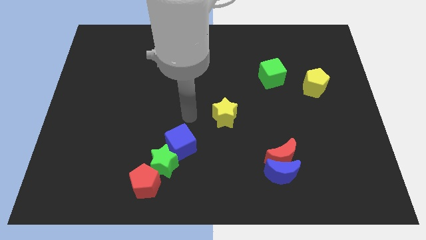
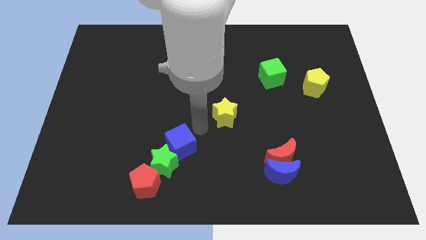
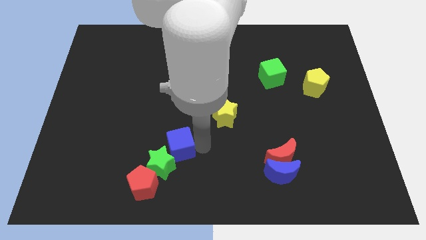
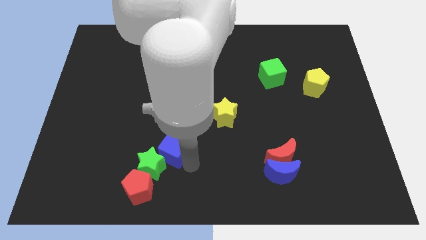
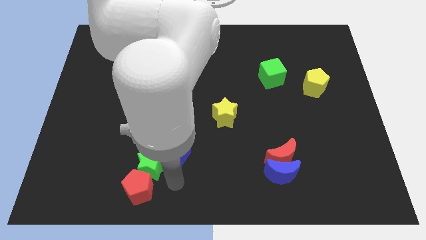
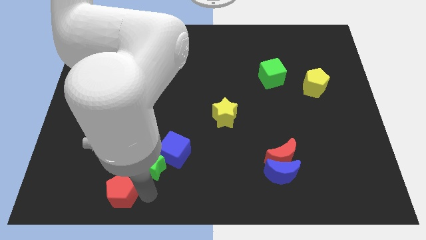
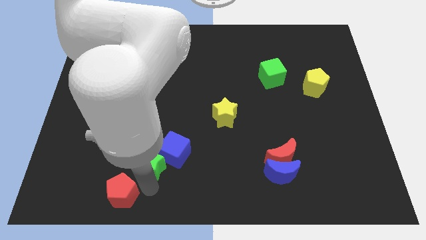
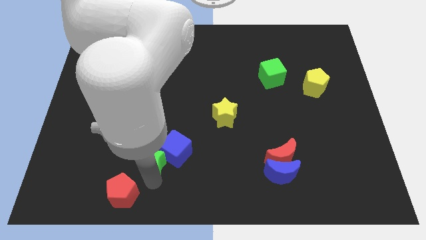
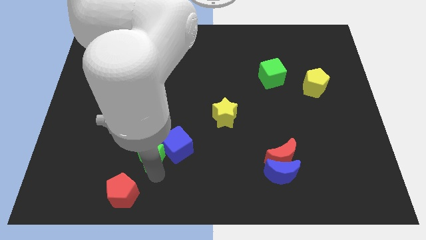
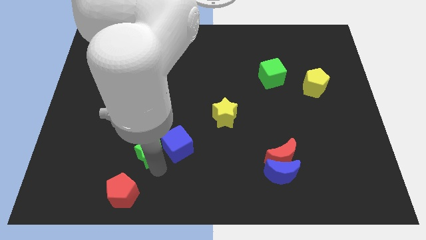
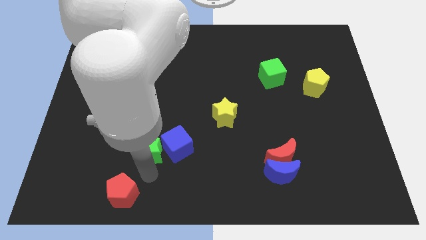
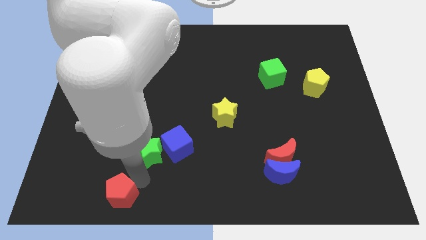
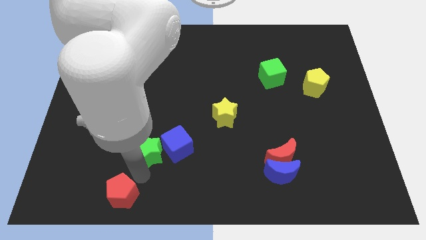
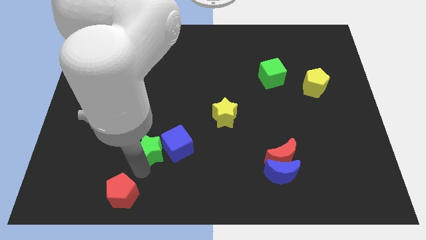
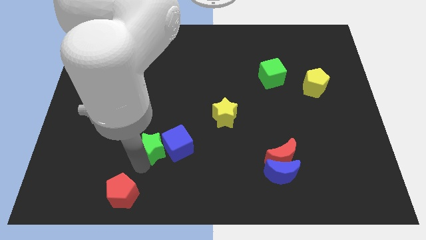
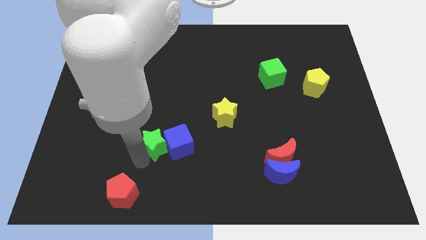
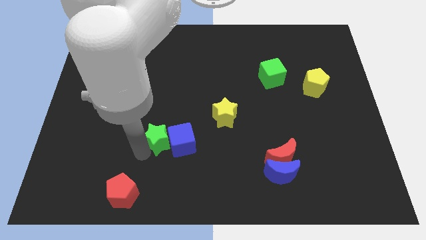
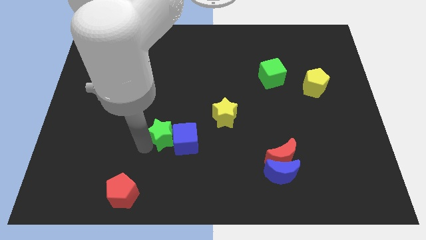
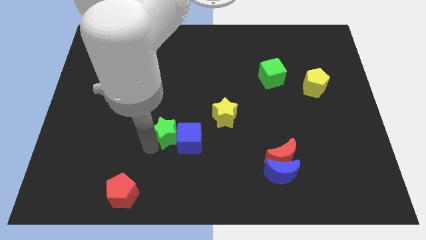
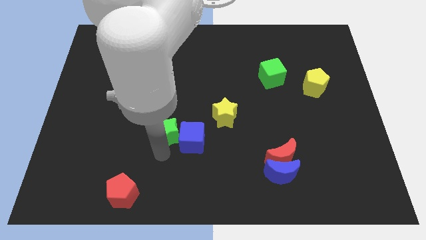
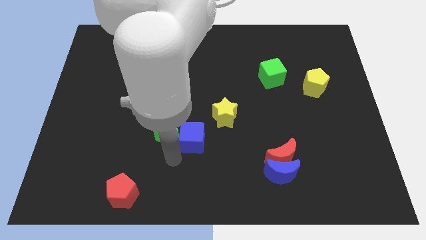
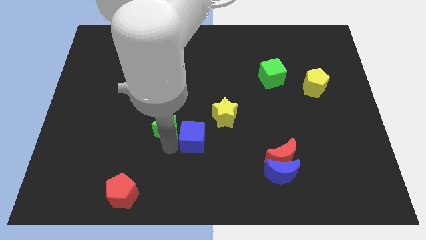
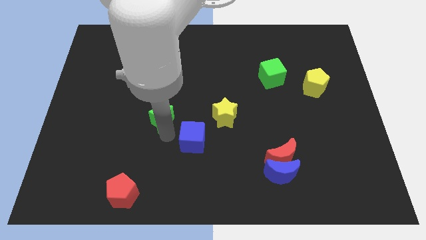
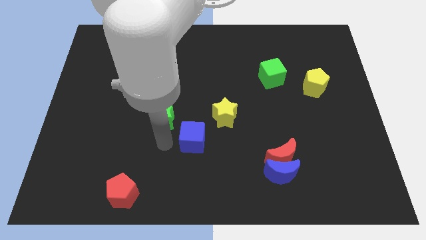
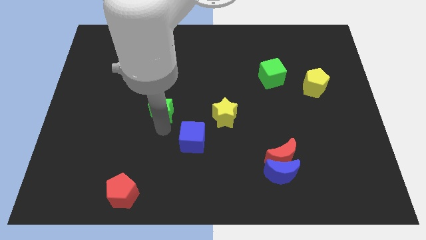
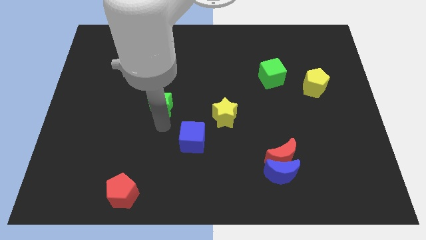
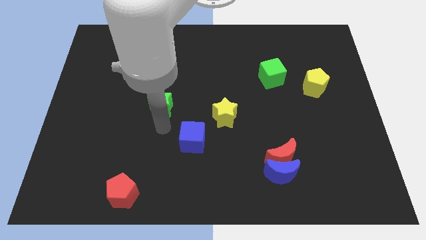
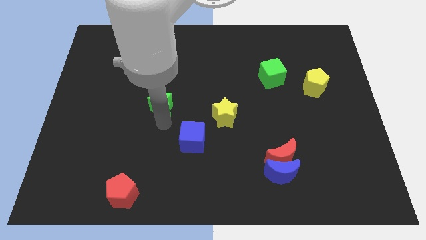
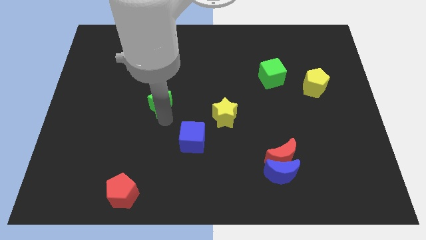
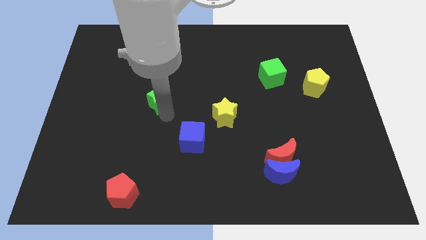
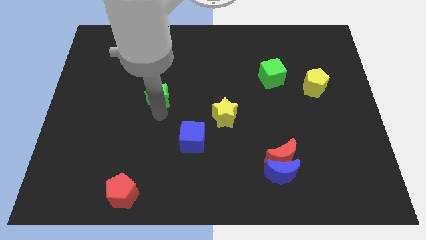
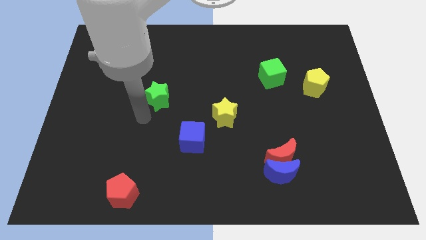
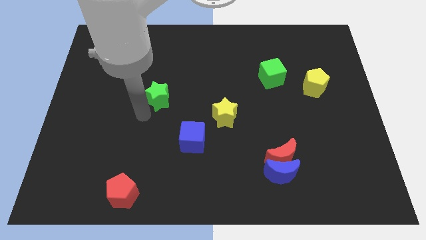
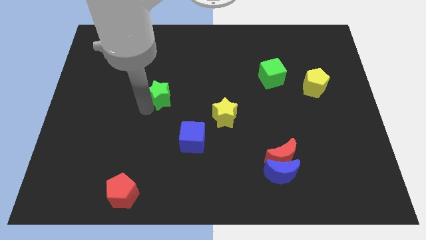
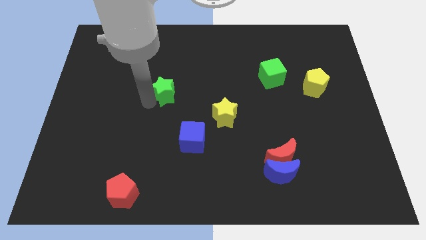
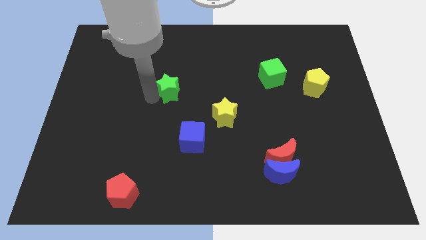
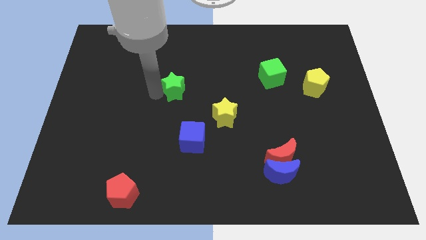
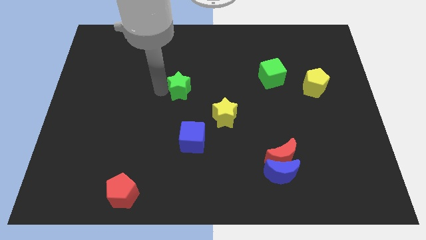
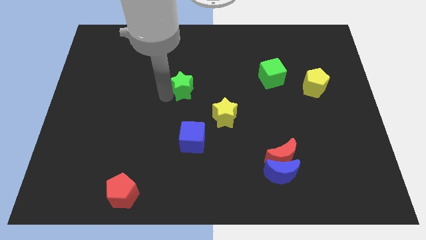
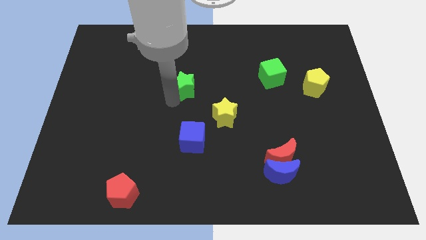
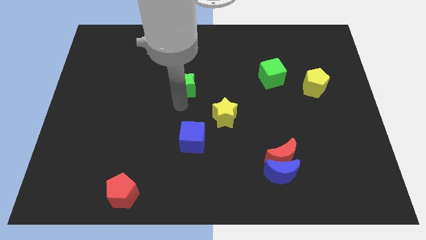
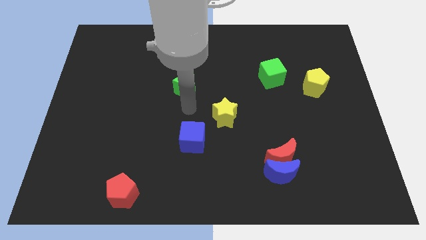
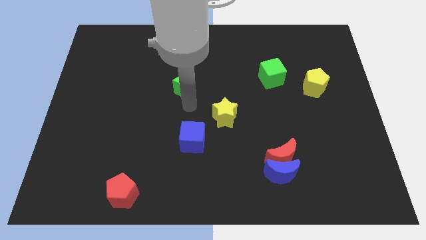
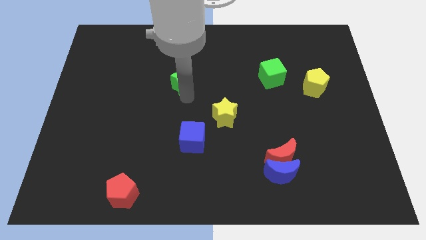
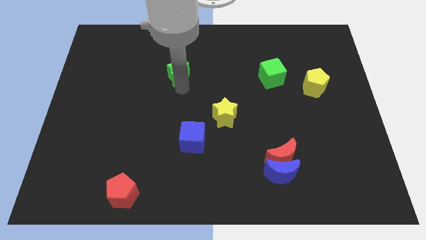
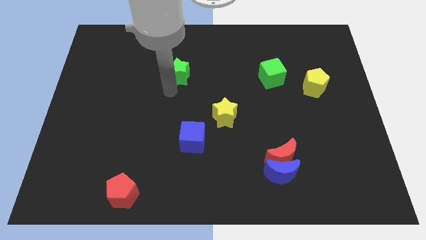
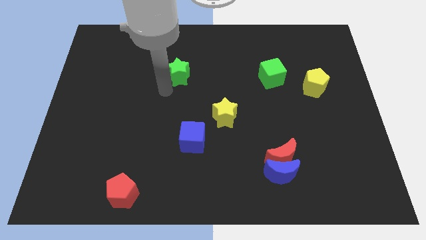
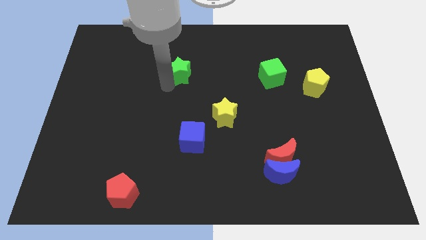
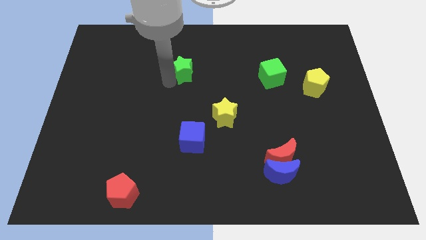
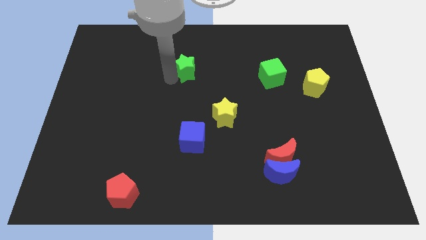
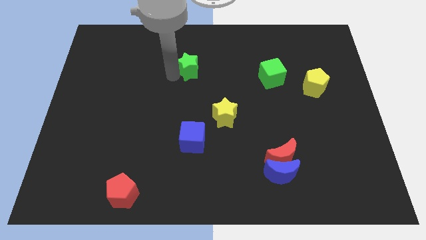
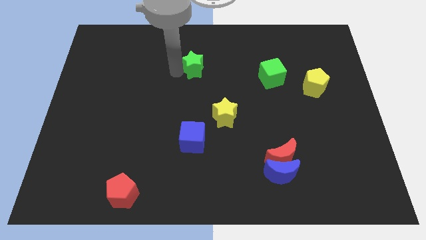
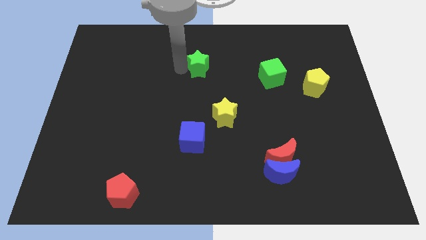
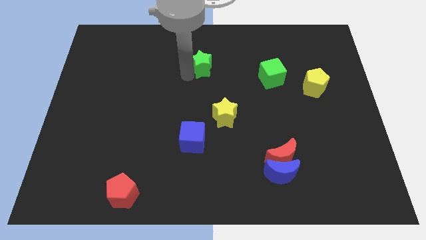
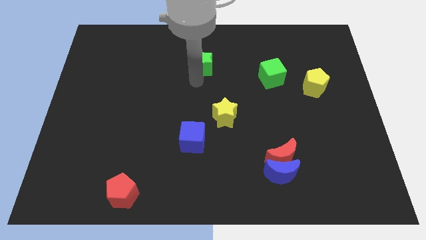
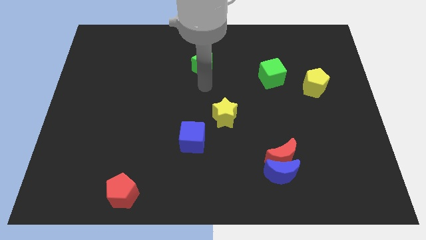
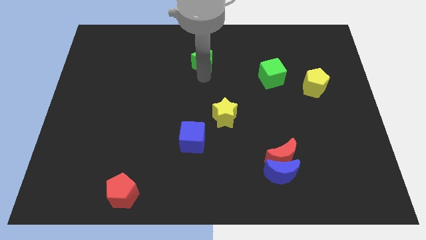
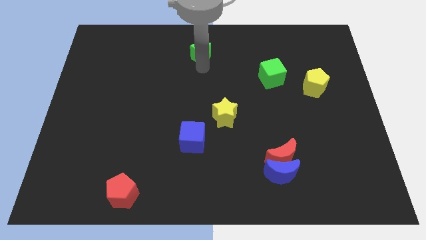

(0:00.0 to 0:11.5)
push the green star to the towards your base

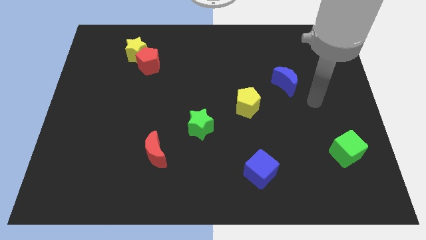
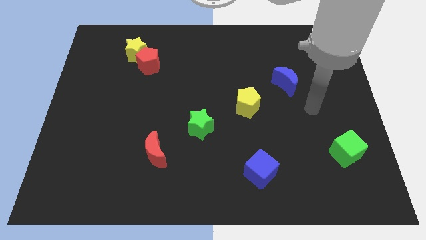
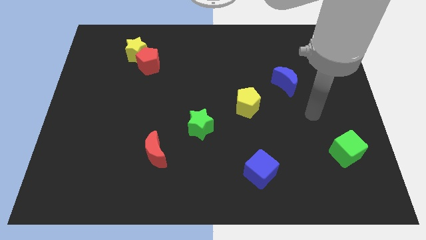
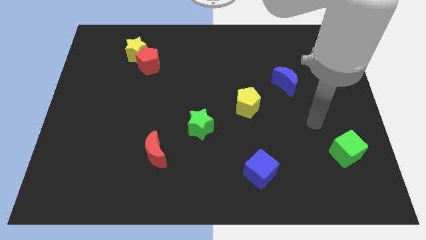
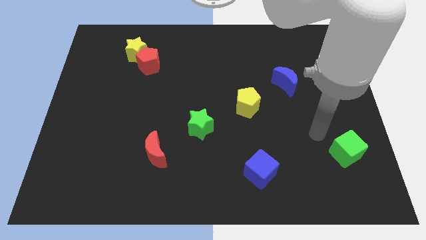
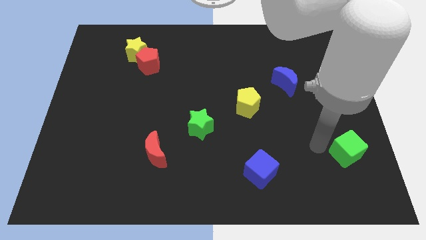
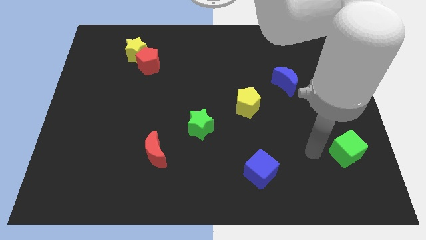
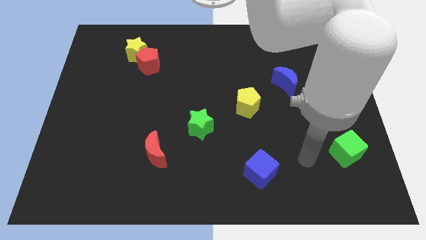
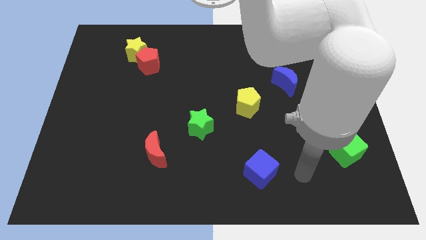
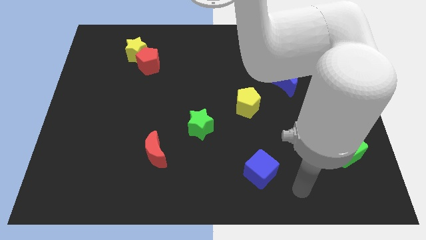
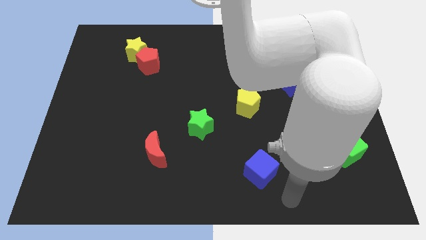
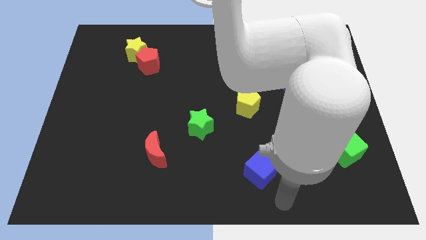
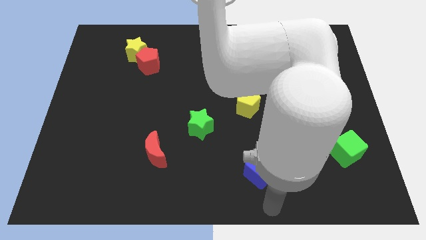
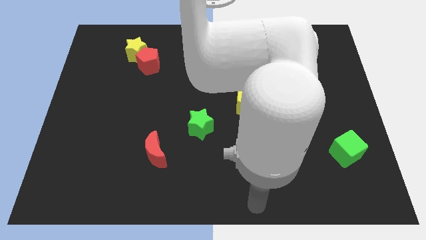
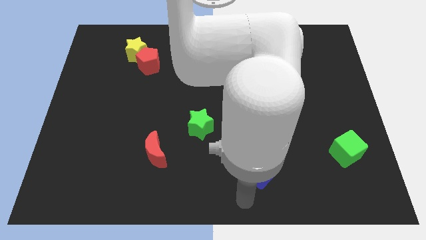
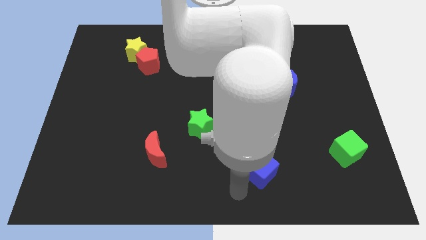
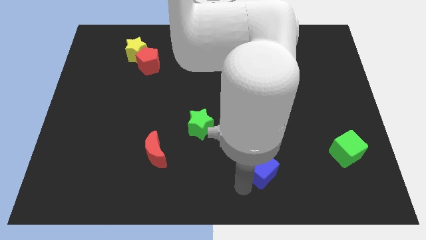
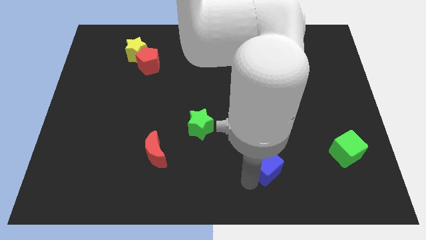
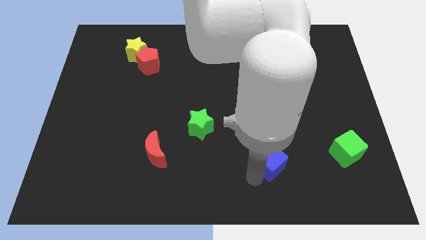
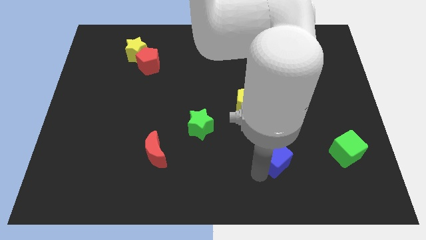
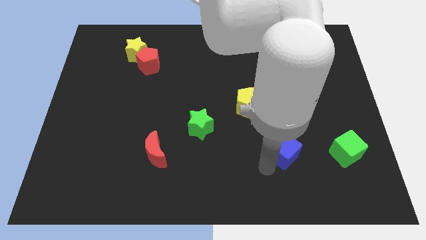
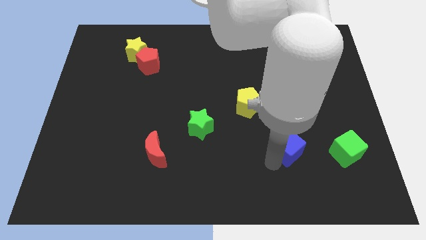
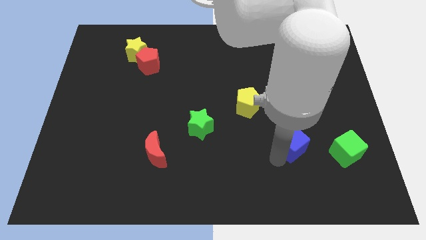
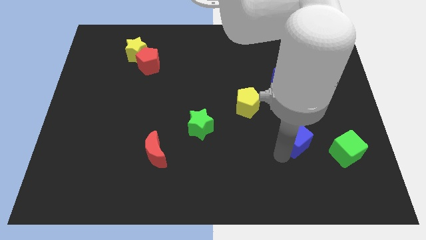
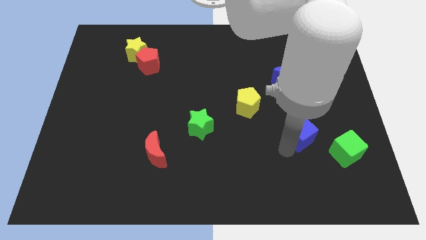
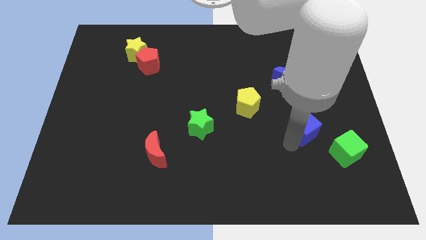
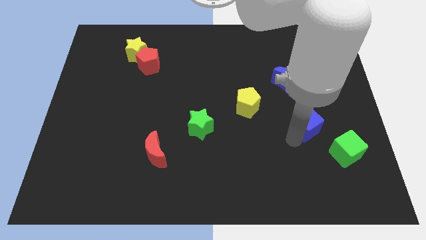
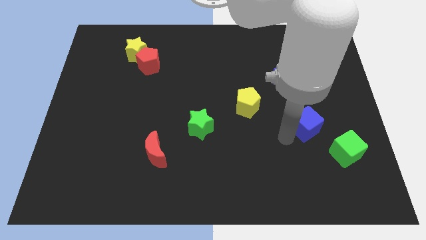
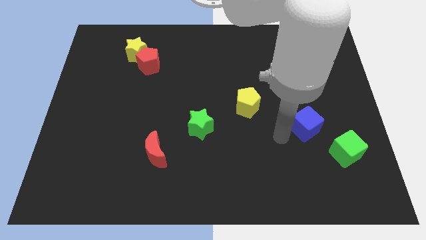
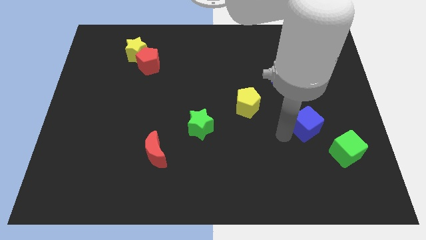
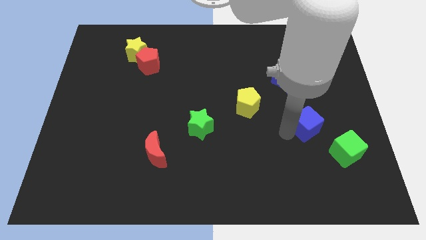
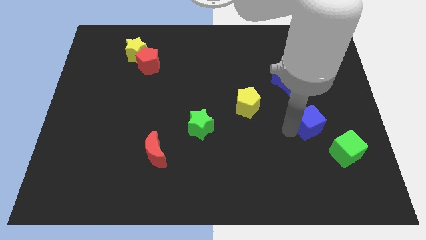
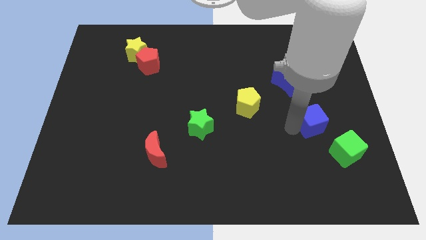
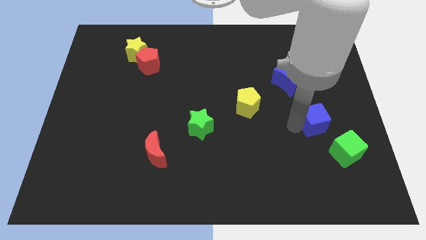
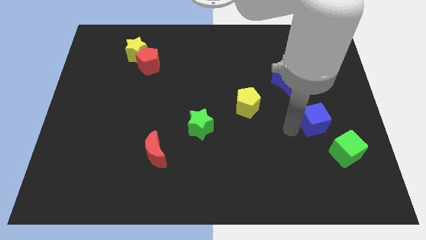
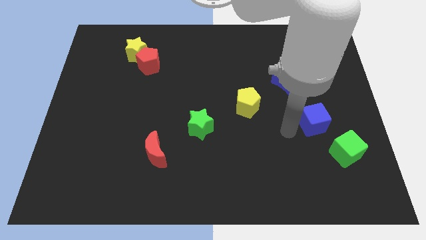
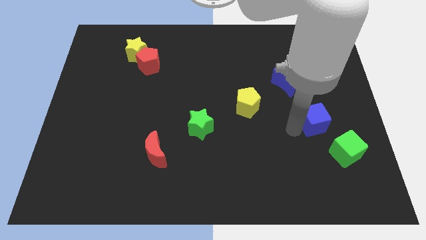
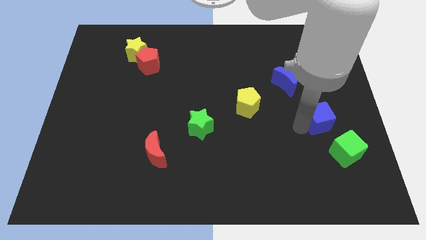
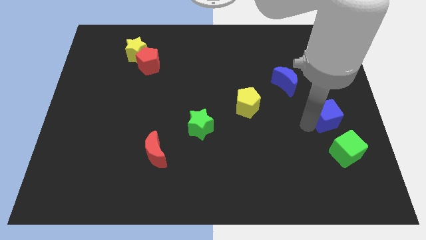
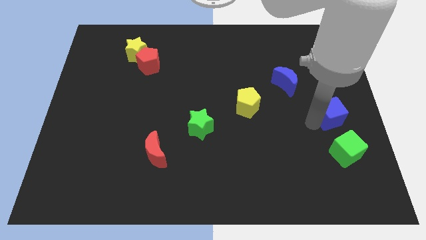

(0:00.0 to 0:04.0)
move the blue cube to the center right
